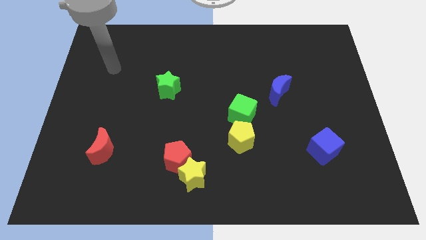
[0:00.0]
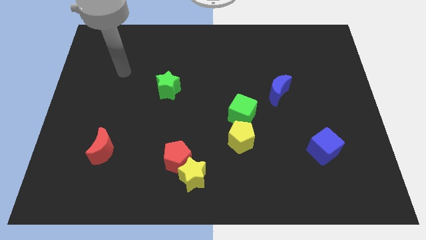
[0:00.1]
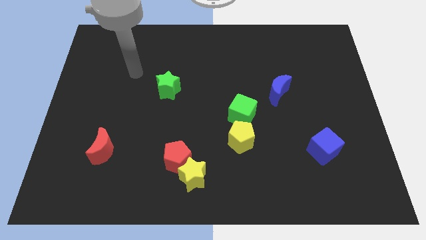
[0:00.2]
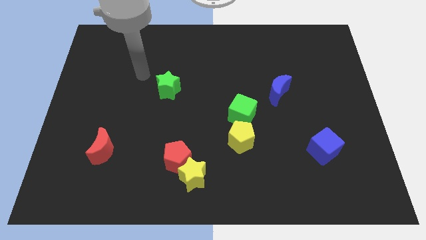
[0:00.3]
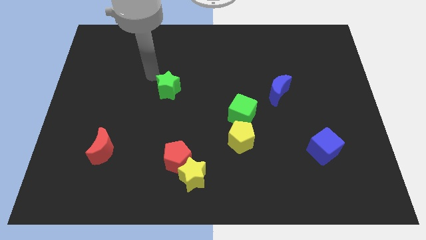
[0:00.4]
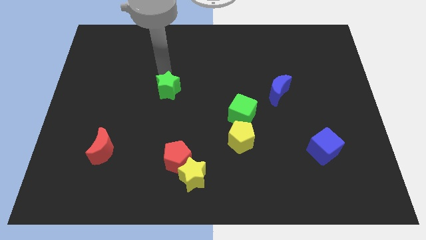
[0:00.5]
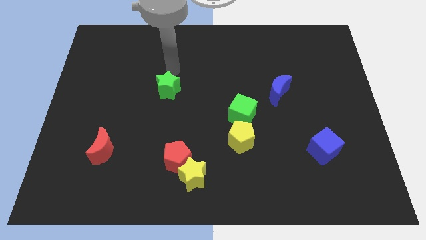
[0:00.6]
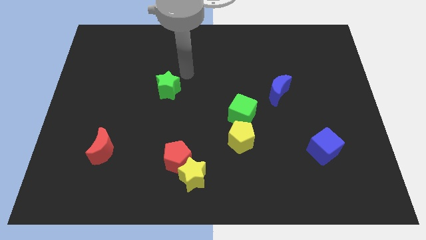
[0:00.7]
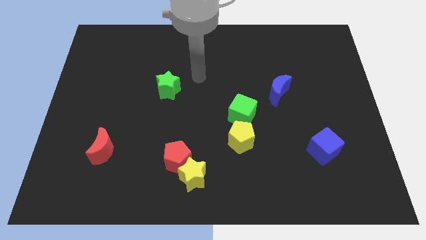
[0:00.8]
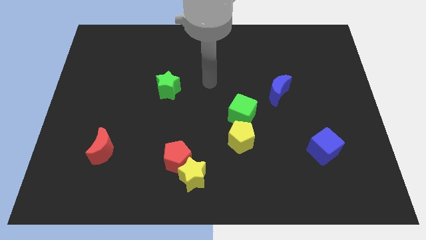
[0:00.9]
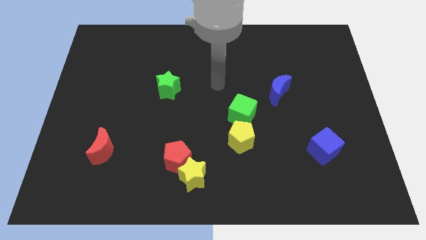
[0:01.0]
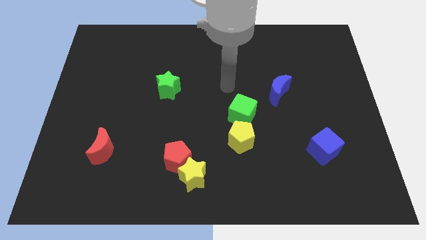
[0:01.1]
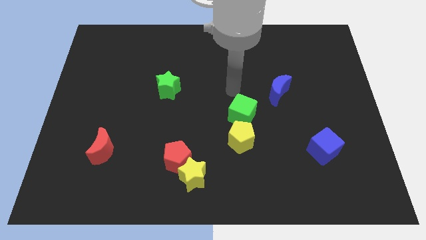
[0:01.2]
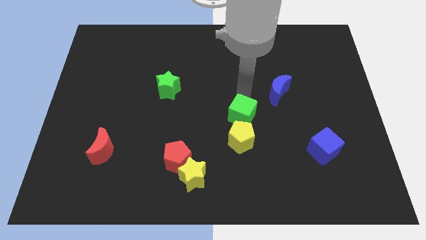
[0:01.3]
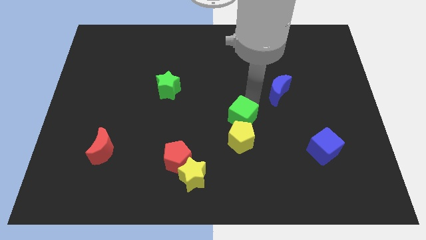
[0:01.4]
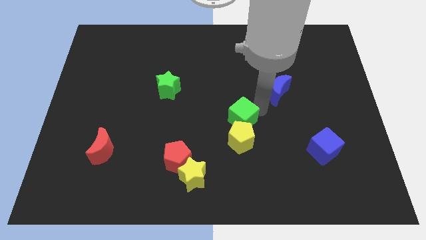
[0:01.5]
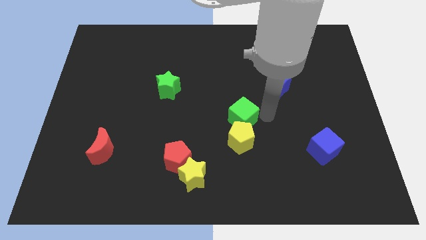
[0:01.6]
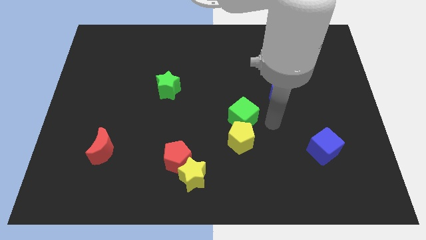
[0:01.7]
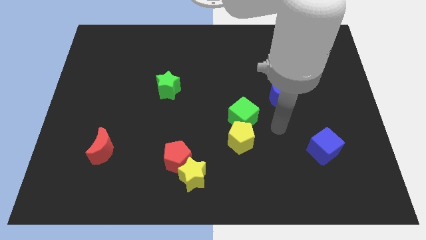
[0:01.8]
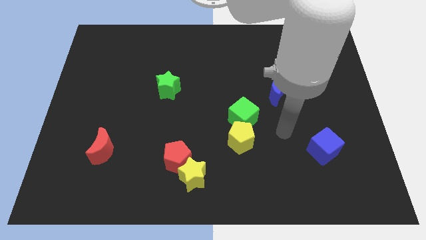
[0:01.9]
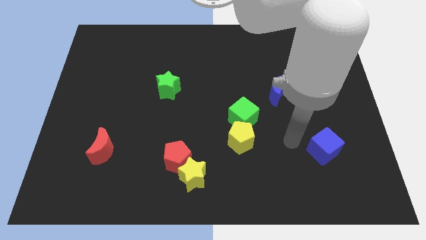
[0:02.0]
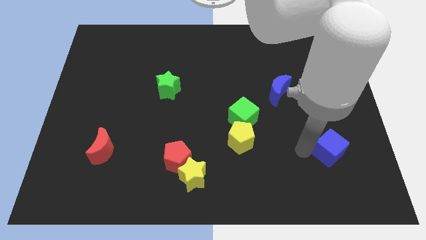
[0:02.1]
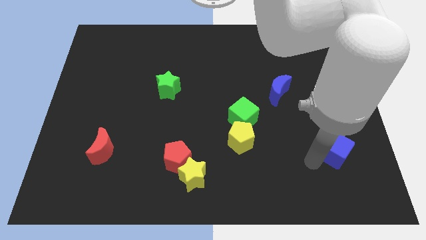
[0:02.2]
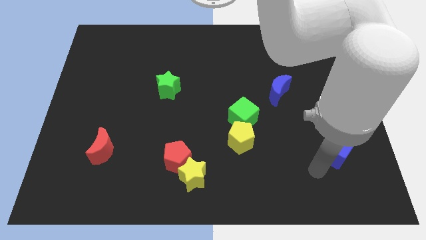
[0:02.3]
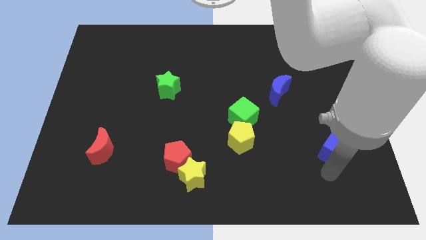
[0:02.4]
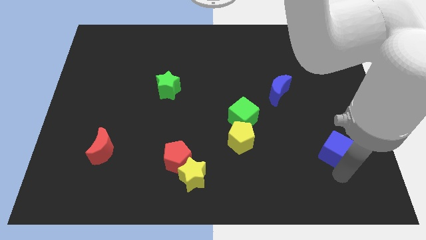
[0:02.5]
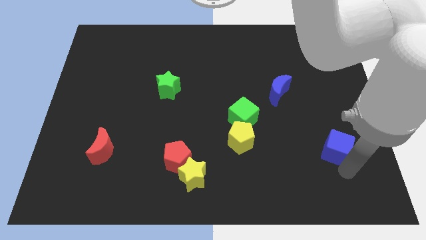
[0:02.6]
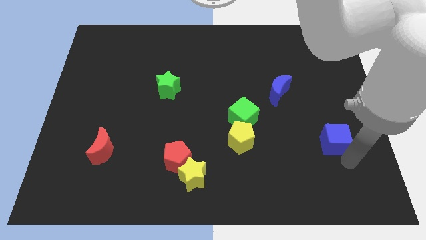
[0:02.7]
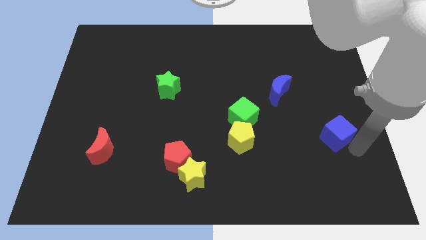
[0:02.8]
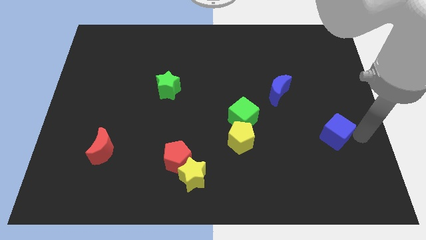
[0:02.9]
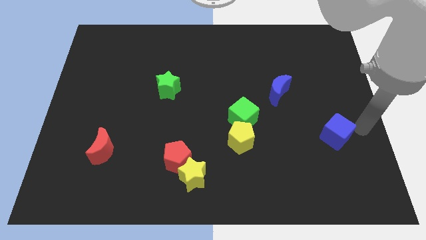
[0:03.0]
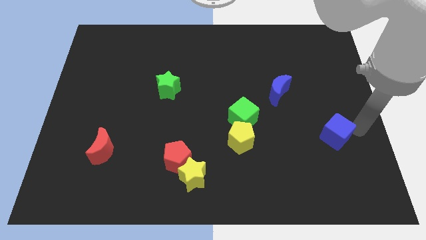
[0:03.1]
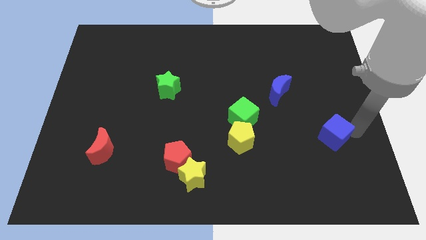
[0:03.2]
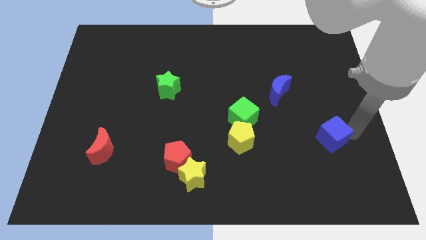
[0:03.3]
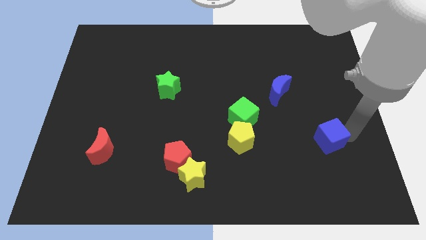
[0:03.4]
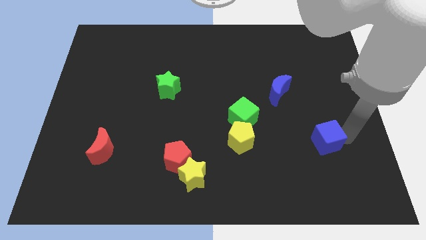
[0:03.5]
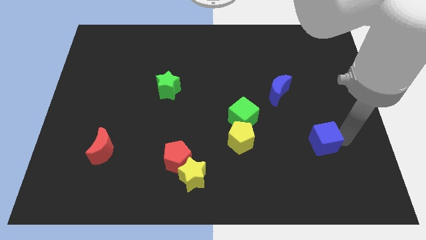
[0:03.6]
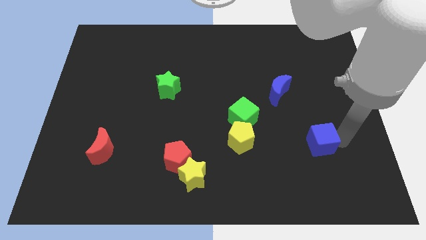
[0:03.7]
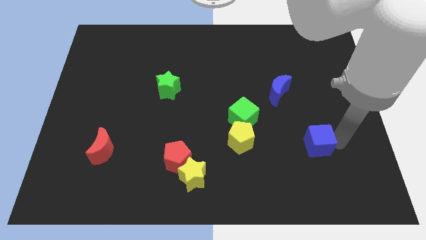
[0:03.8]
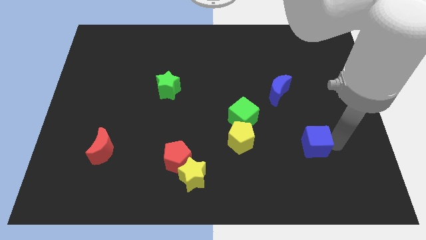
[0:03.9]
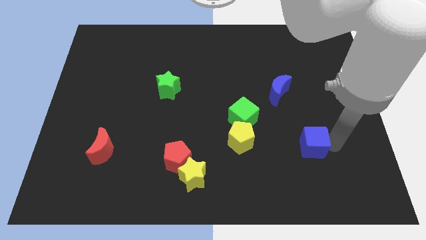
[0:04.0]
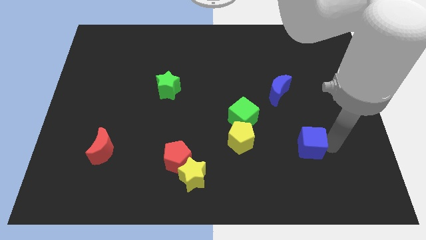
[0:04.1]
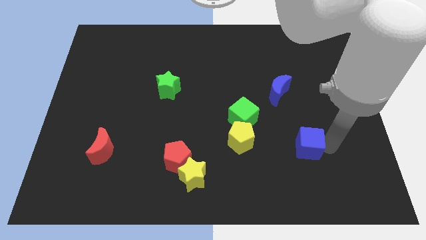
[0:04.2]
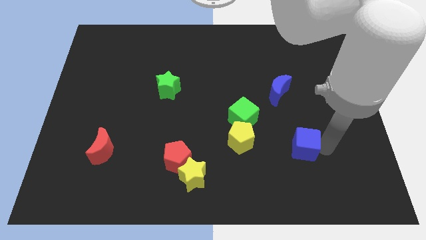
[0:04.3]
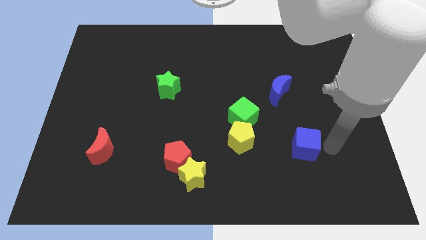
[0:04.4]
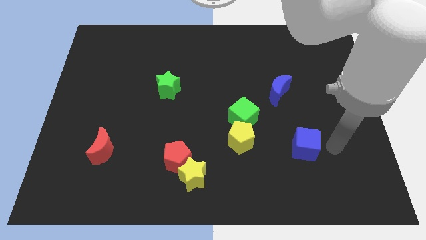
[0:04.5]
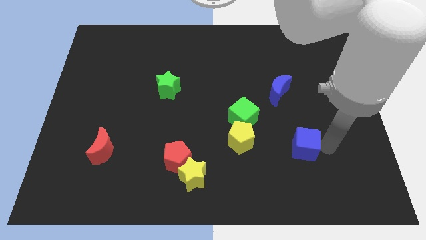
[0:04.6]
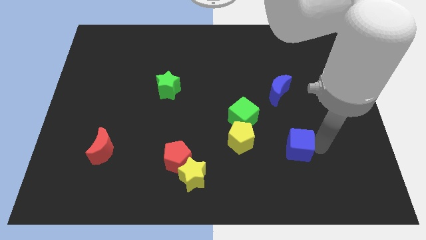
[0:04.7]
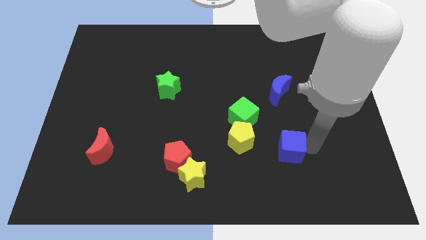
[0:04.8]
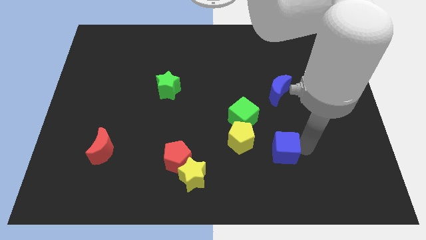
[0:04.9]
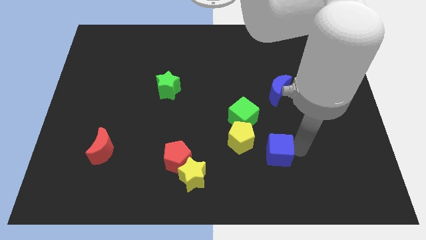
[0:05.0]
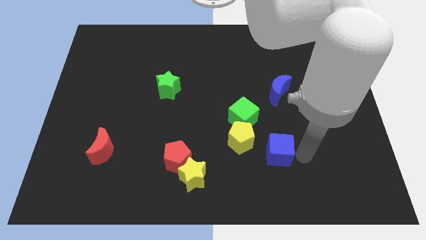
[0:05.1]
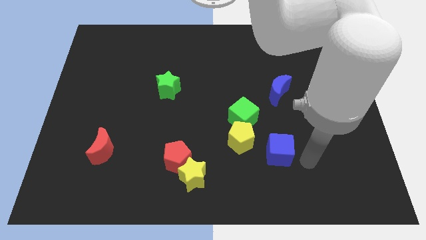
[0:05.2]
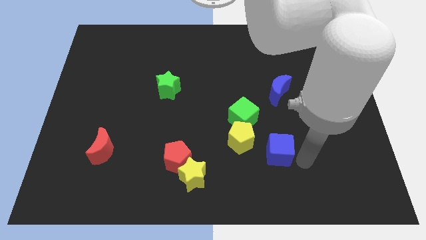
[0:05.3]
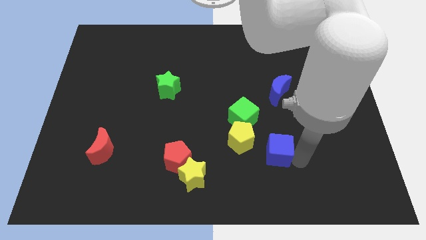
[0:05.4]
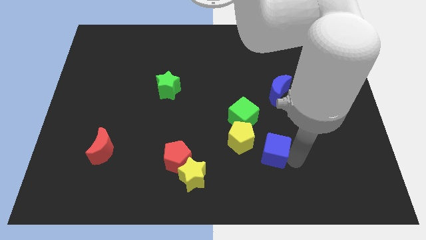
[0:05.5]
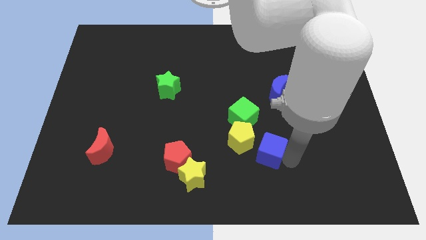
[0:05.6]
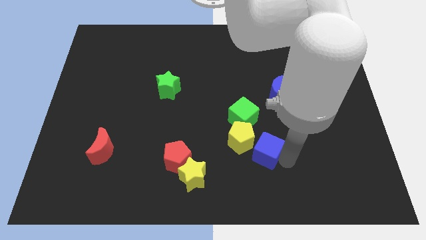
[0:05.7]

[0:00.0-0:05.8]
put the blue cube close to the yellow pentagon

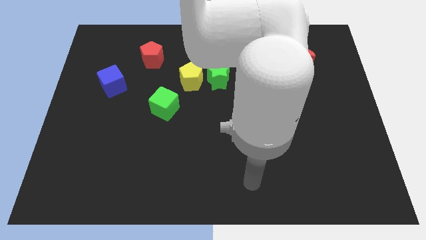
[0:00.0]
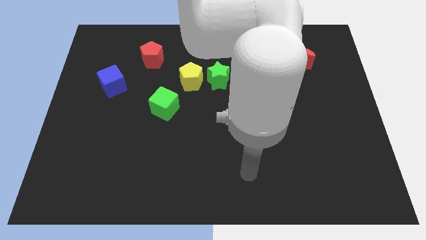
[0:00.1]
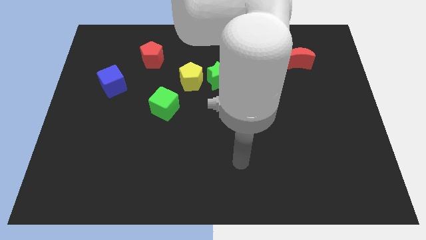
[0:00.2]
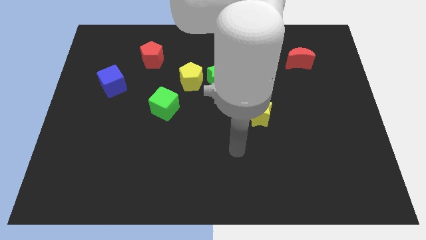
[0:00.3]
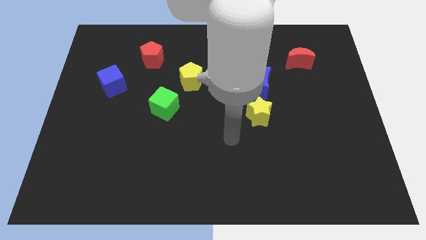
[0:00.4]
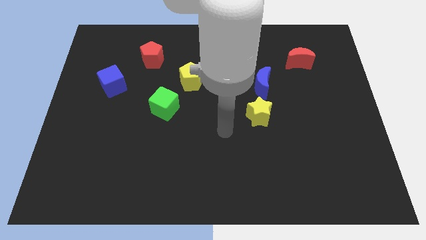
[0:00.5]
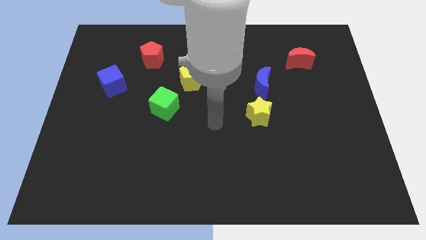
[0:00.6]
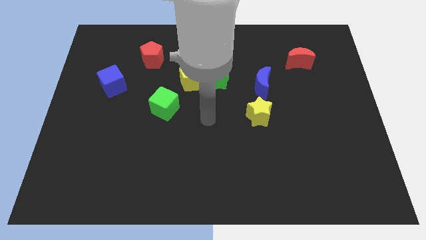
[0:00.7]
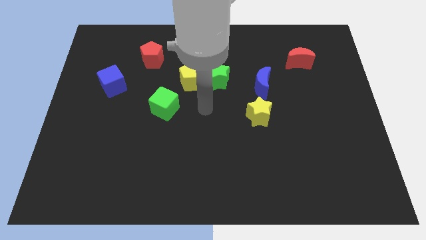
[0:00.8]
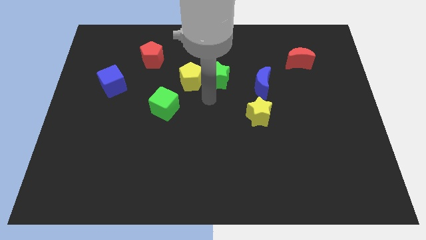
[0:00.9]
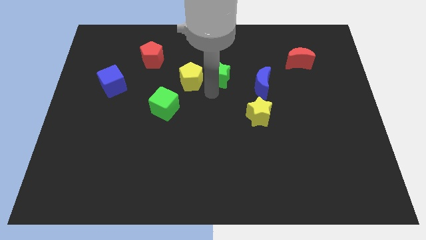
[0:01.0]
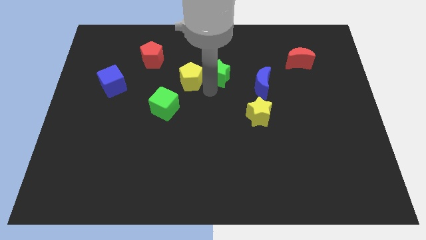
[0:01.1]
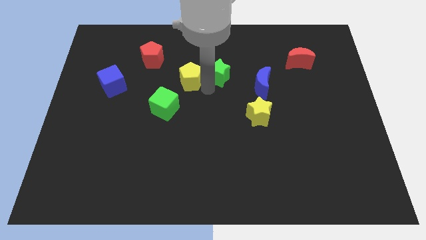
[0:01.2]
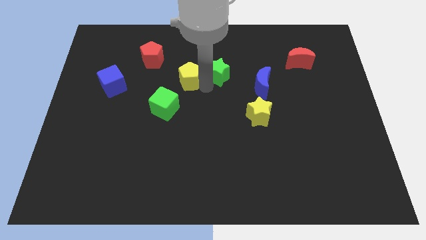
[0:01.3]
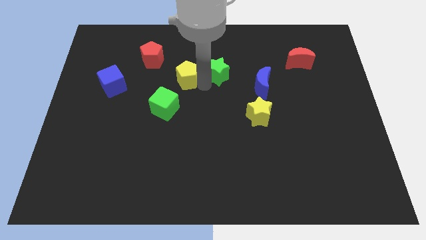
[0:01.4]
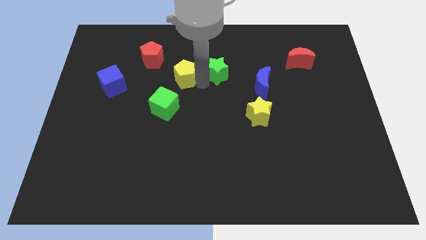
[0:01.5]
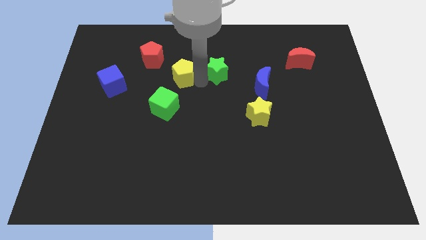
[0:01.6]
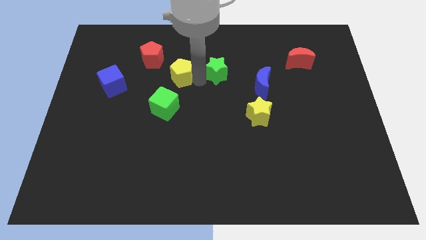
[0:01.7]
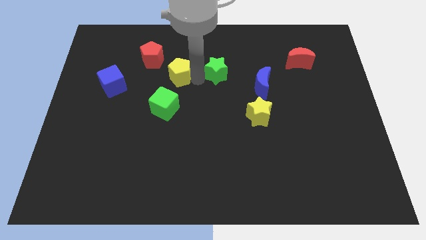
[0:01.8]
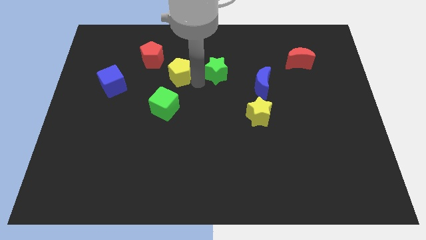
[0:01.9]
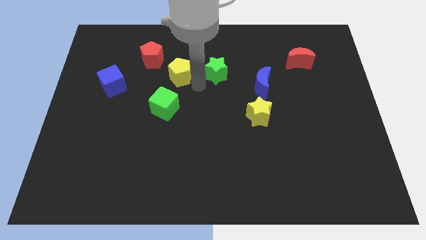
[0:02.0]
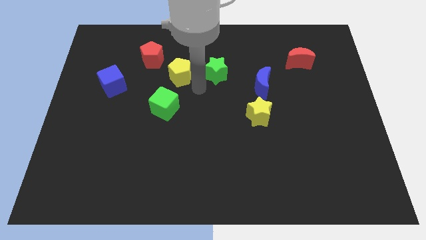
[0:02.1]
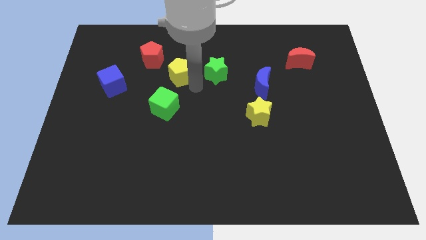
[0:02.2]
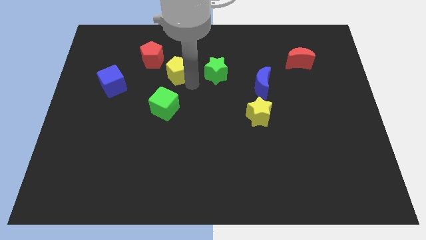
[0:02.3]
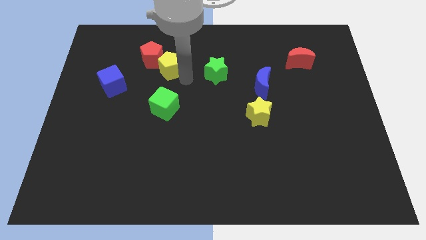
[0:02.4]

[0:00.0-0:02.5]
put the yellow pentagon close to the red pentagon
